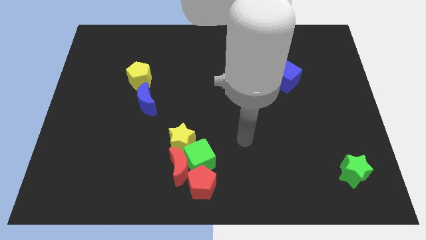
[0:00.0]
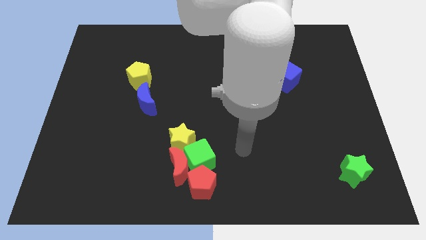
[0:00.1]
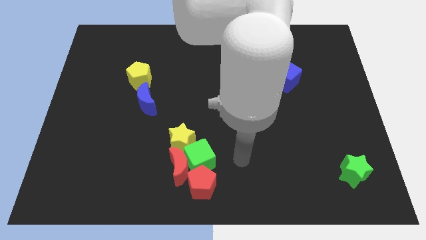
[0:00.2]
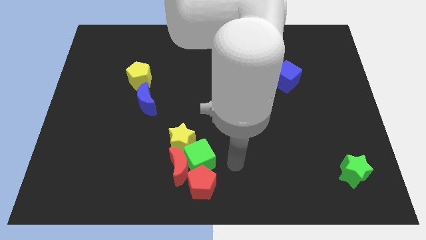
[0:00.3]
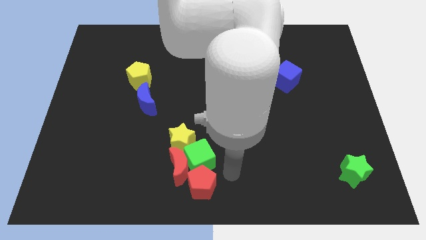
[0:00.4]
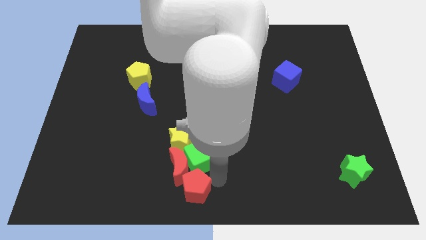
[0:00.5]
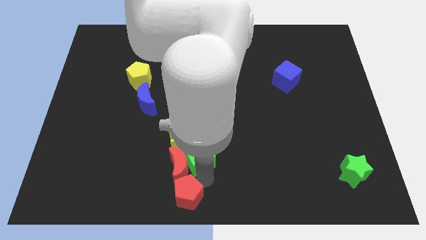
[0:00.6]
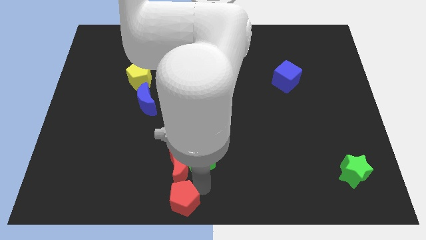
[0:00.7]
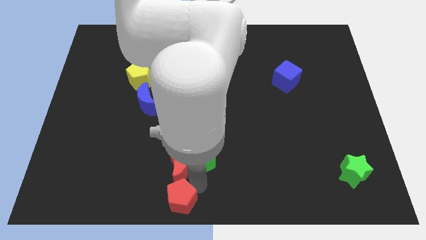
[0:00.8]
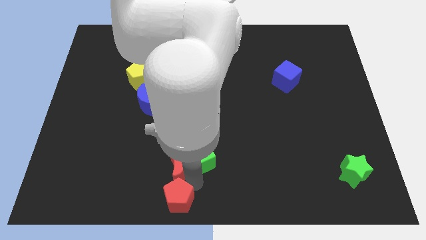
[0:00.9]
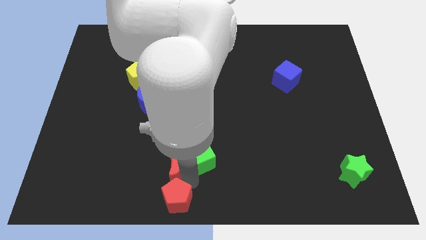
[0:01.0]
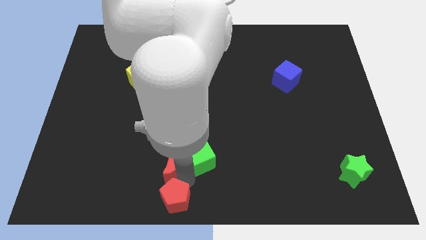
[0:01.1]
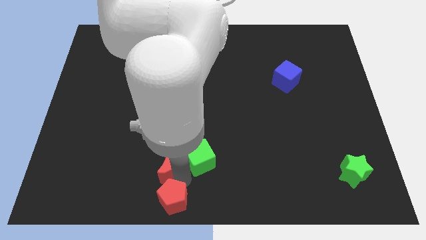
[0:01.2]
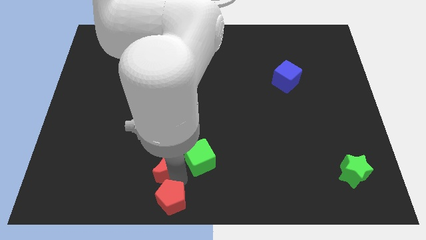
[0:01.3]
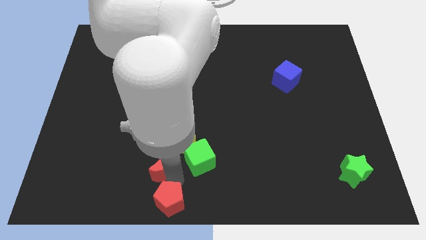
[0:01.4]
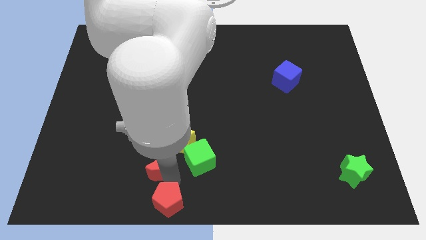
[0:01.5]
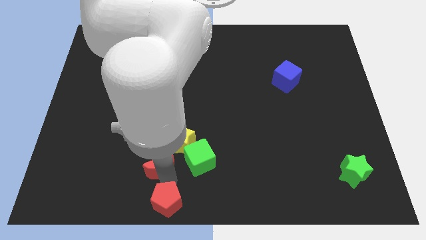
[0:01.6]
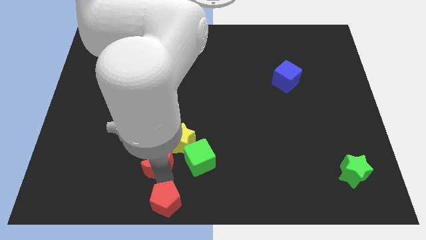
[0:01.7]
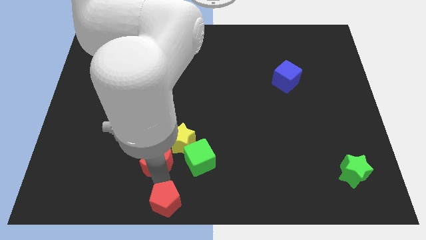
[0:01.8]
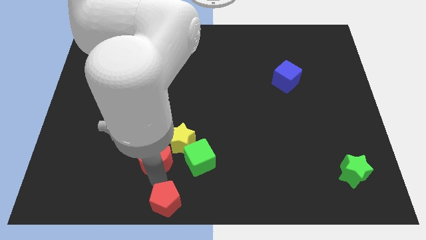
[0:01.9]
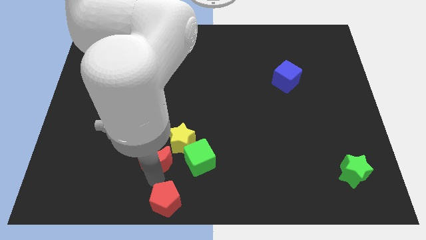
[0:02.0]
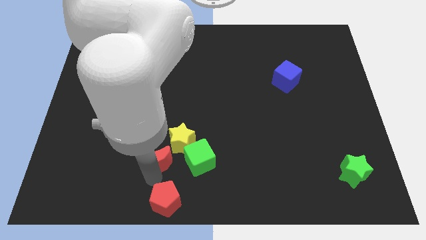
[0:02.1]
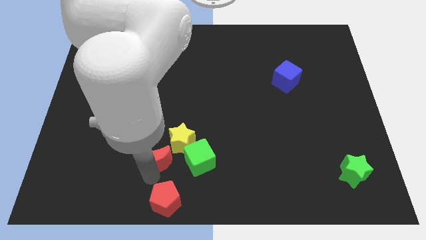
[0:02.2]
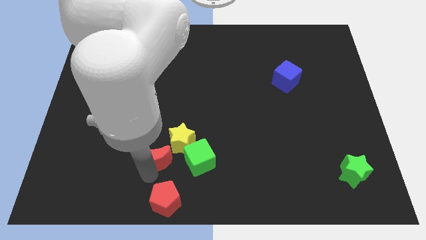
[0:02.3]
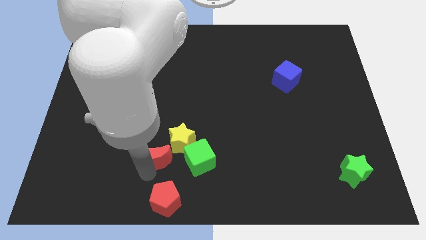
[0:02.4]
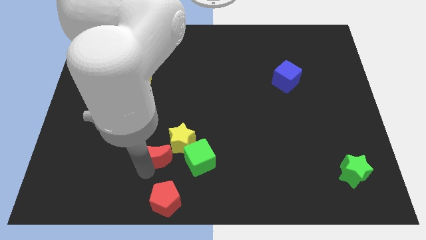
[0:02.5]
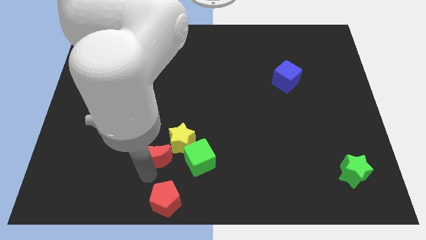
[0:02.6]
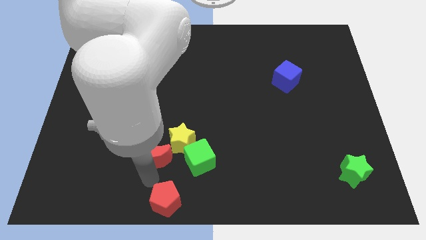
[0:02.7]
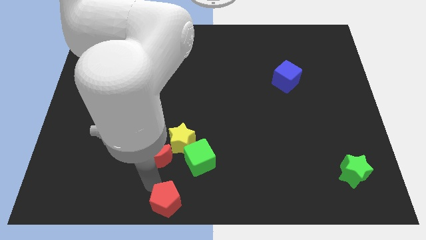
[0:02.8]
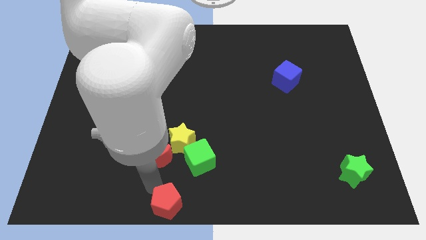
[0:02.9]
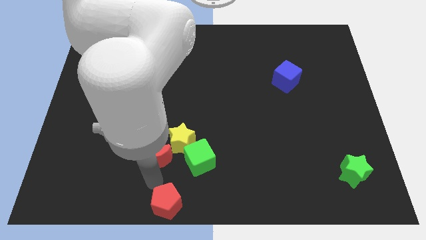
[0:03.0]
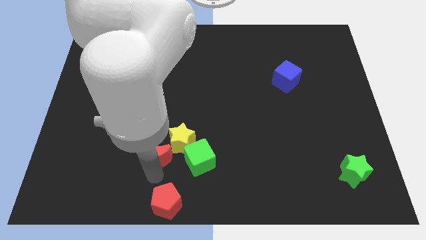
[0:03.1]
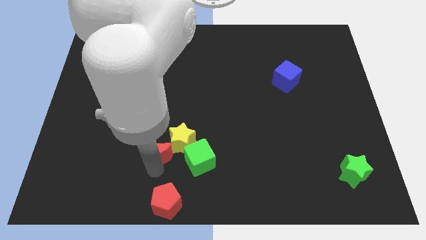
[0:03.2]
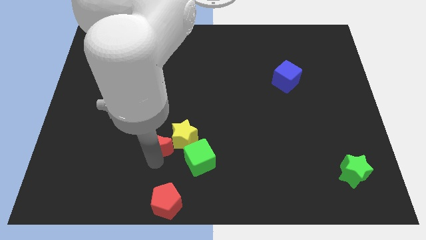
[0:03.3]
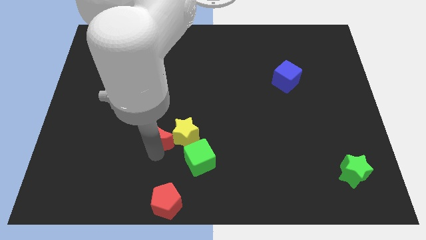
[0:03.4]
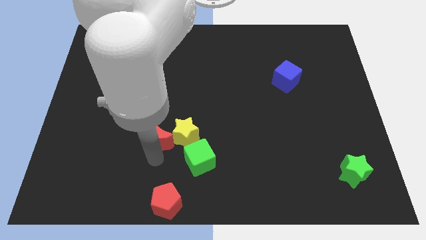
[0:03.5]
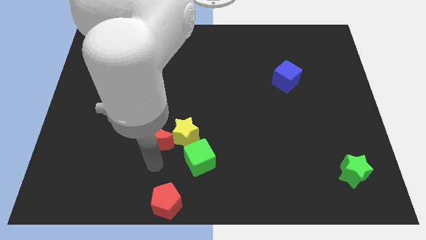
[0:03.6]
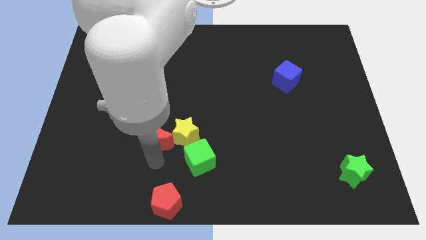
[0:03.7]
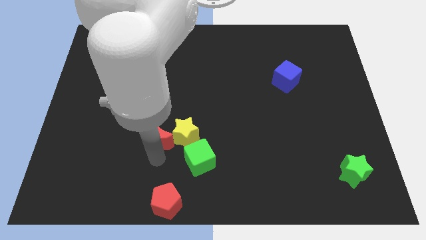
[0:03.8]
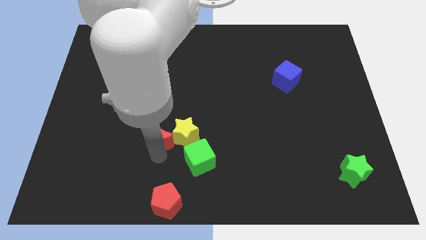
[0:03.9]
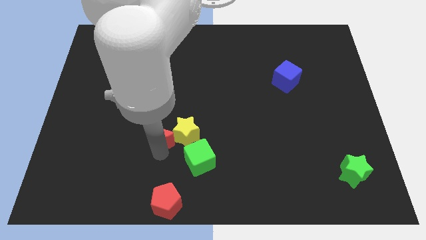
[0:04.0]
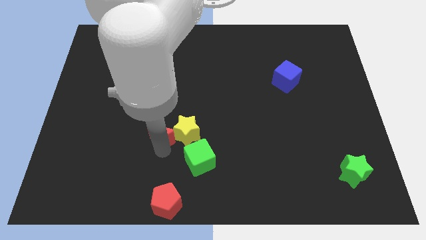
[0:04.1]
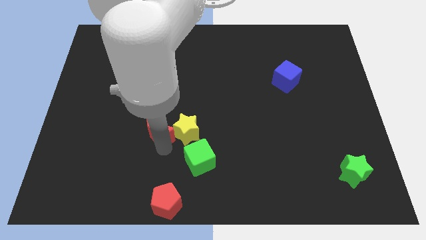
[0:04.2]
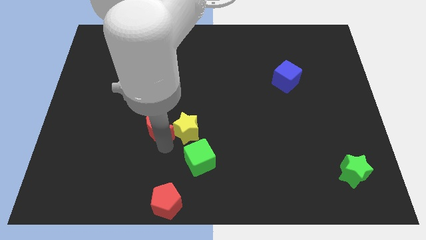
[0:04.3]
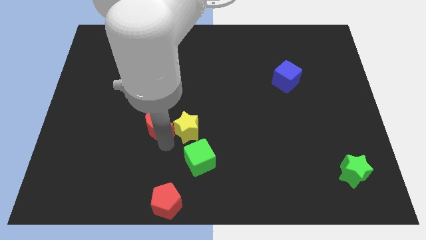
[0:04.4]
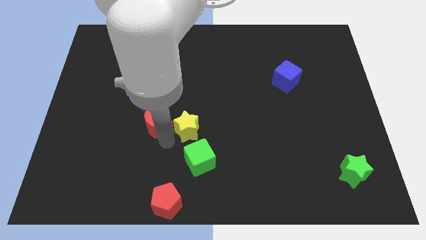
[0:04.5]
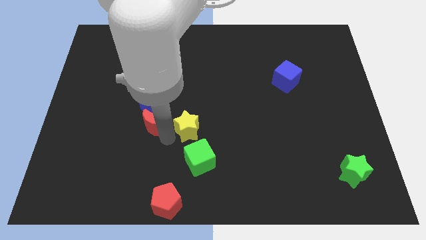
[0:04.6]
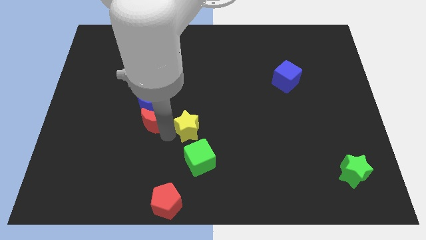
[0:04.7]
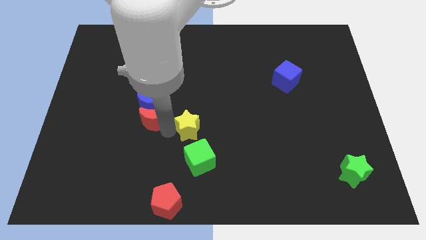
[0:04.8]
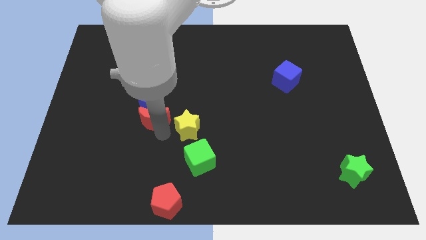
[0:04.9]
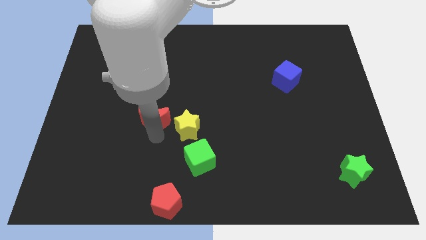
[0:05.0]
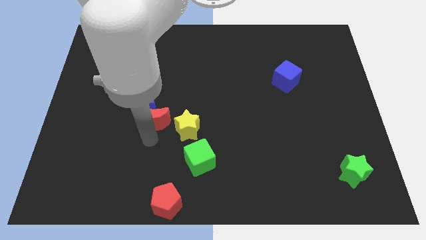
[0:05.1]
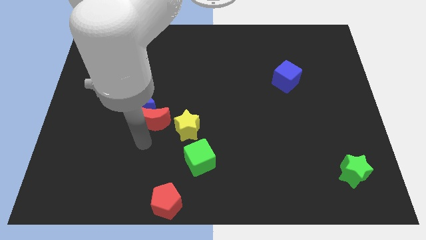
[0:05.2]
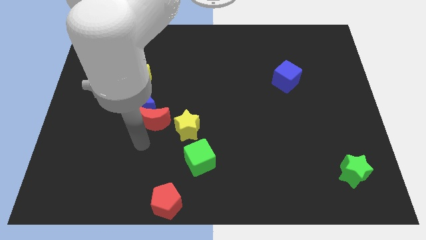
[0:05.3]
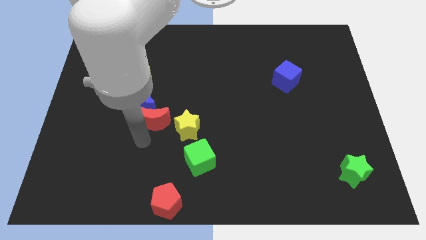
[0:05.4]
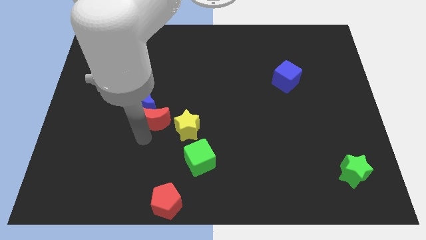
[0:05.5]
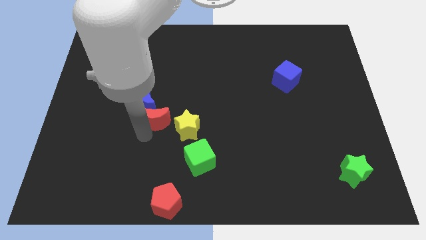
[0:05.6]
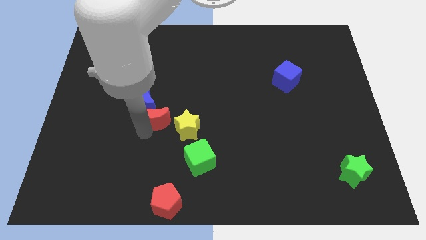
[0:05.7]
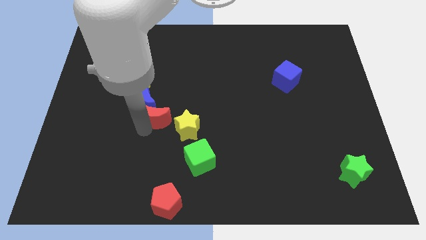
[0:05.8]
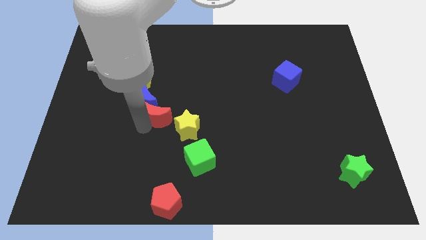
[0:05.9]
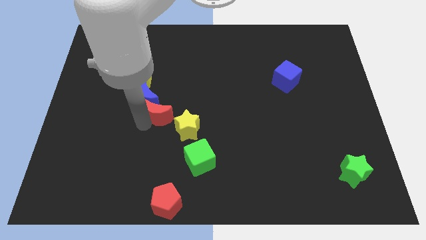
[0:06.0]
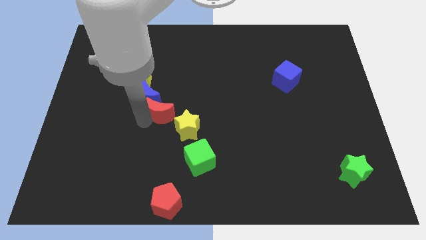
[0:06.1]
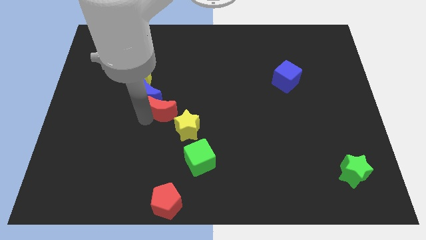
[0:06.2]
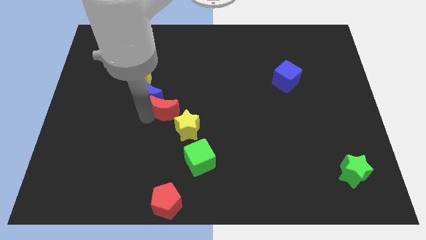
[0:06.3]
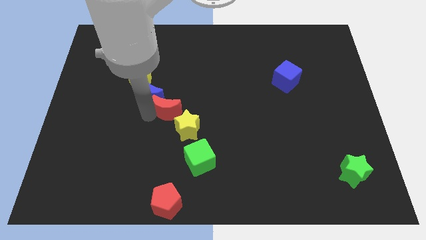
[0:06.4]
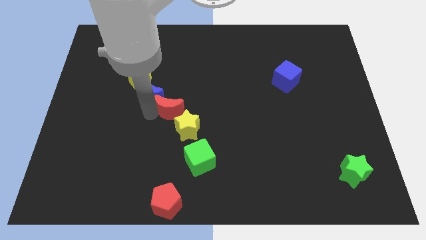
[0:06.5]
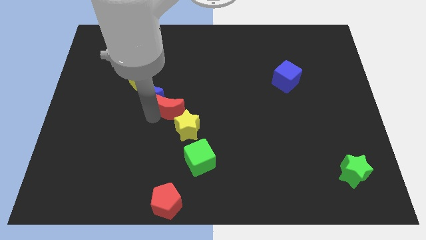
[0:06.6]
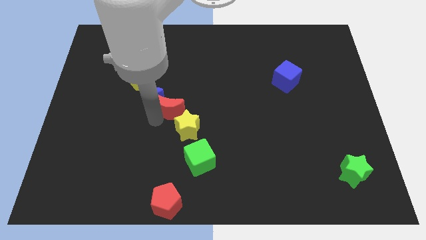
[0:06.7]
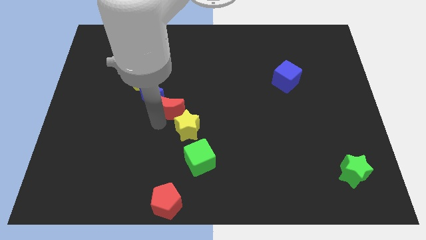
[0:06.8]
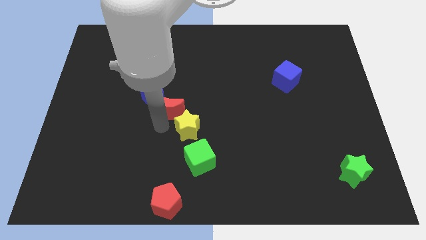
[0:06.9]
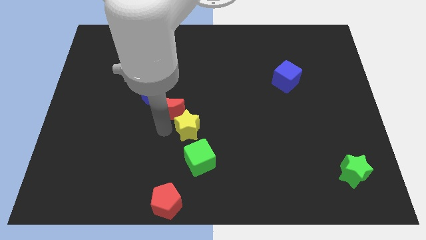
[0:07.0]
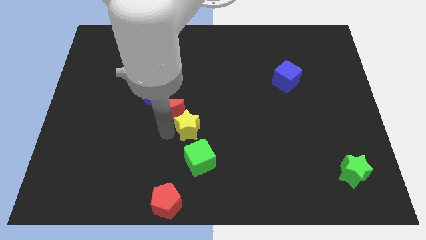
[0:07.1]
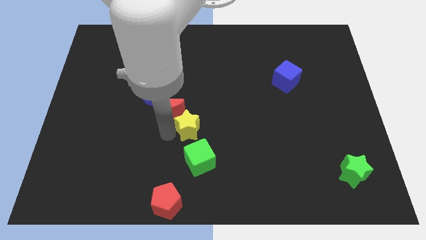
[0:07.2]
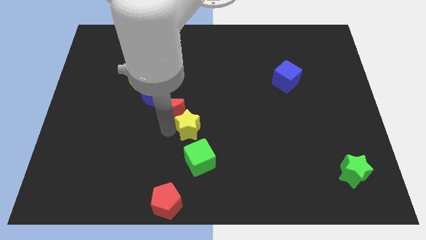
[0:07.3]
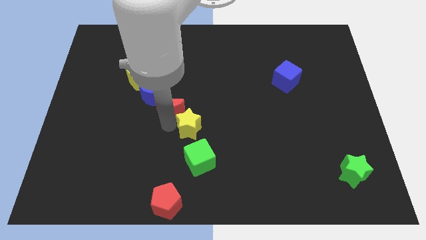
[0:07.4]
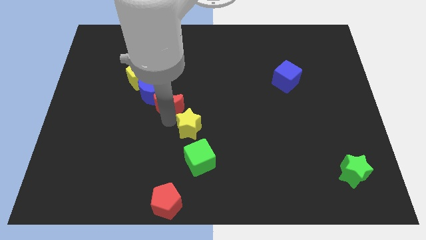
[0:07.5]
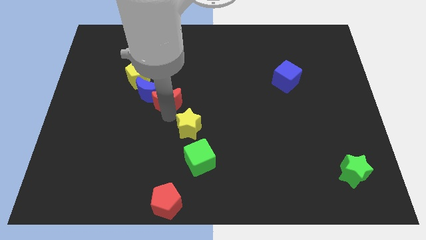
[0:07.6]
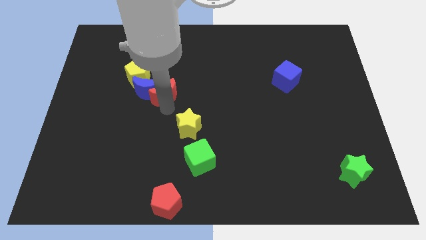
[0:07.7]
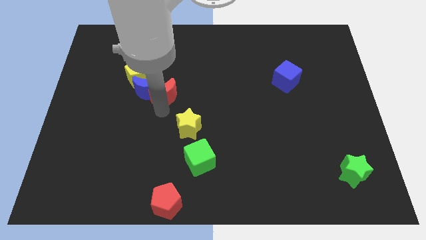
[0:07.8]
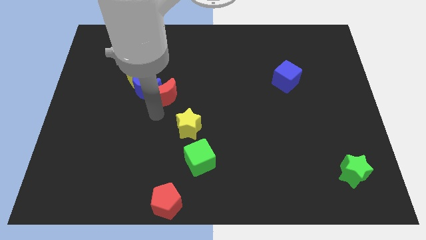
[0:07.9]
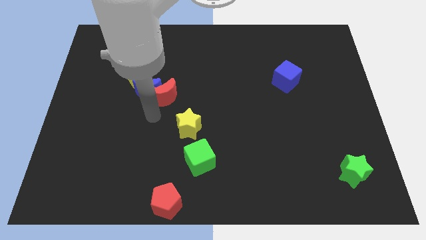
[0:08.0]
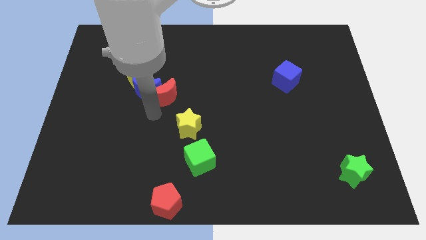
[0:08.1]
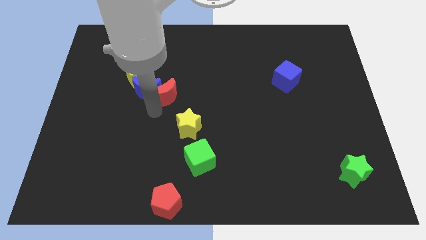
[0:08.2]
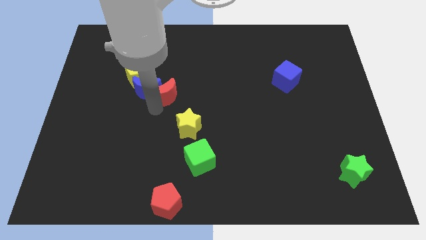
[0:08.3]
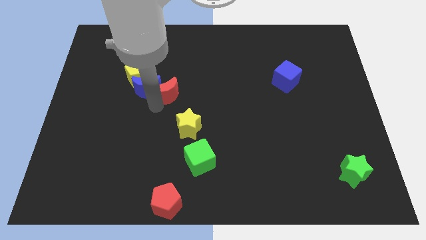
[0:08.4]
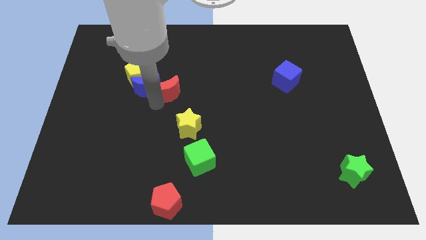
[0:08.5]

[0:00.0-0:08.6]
push the red moon upwards
